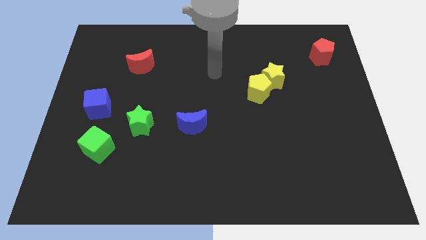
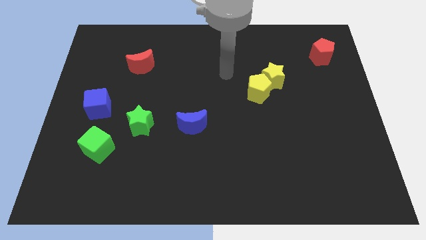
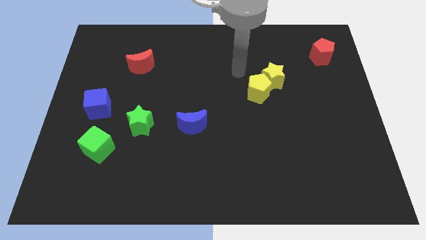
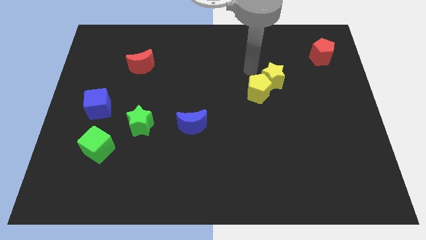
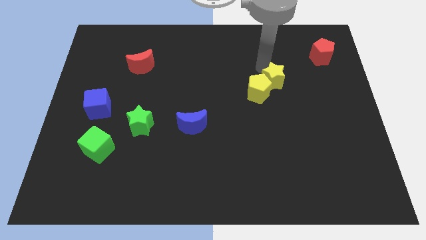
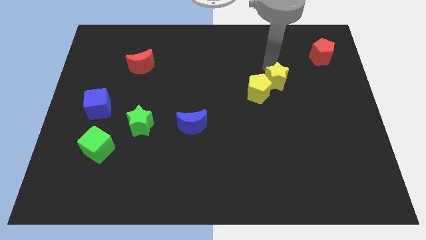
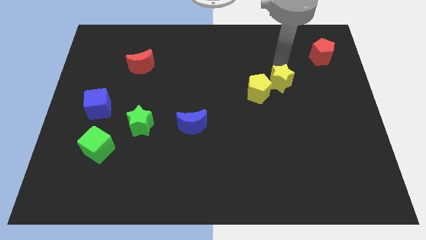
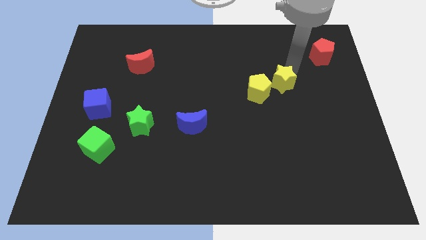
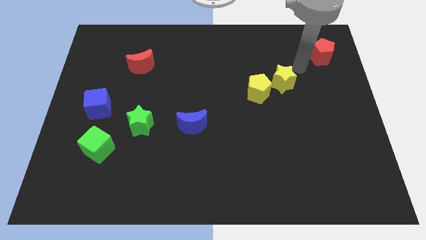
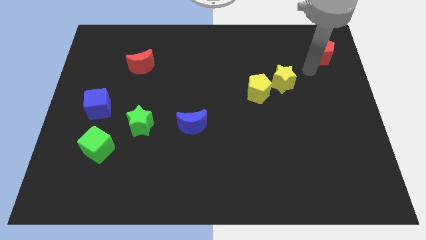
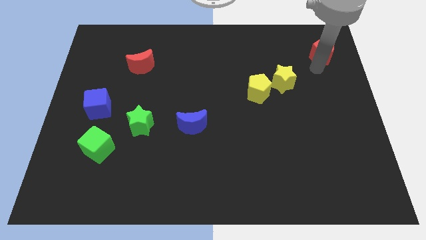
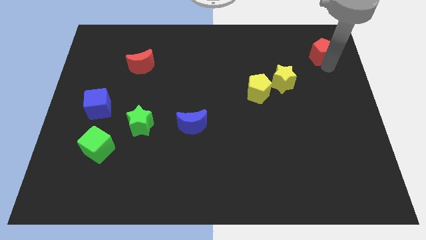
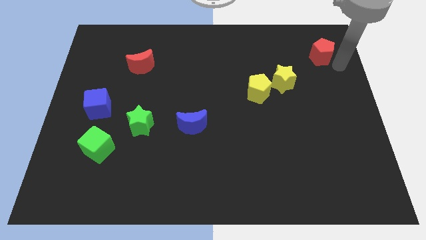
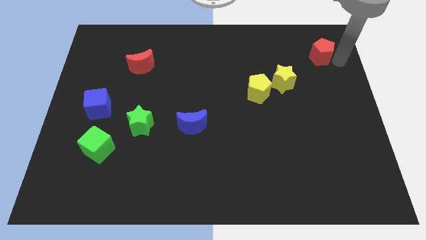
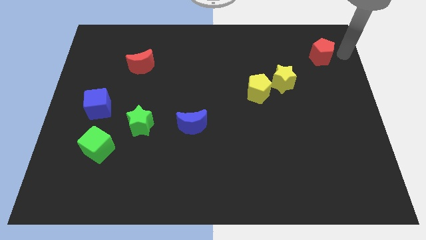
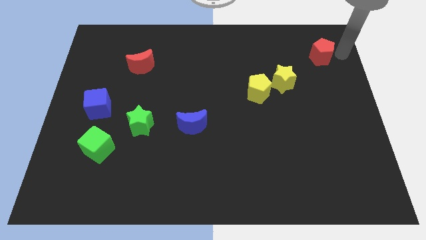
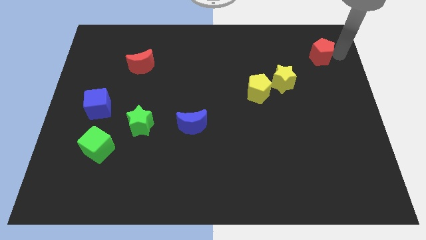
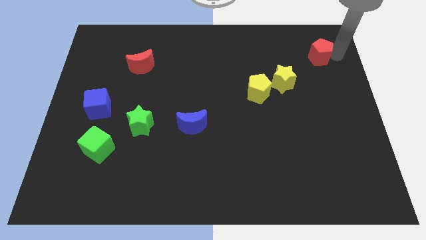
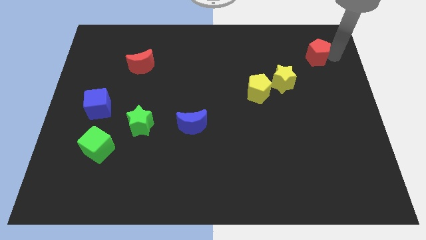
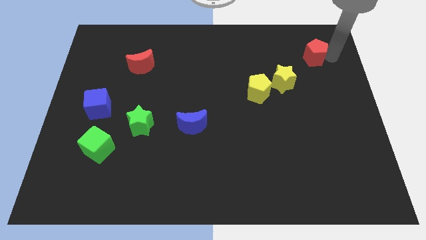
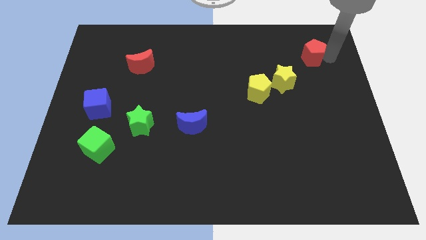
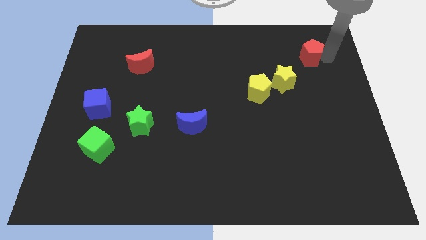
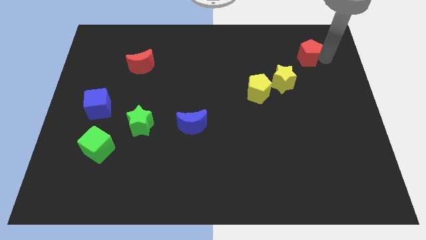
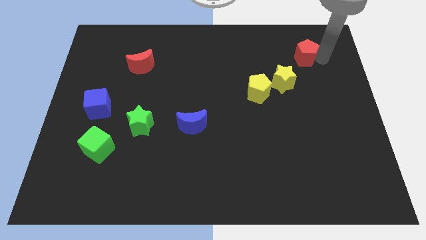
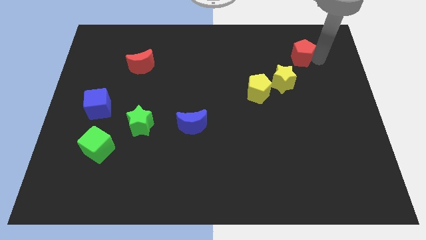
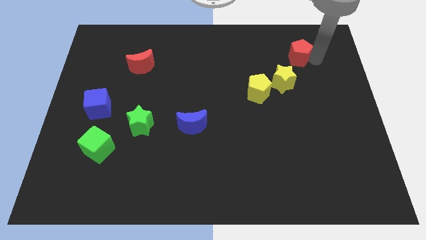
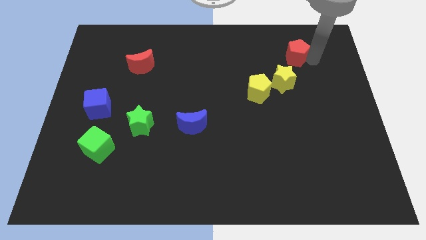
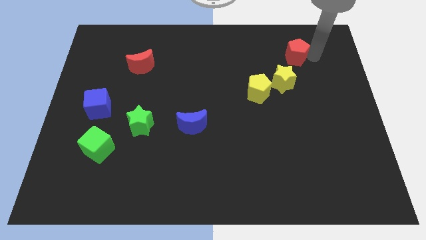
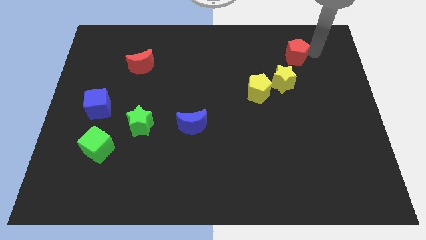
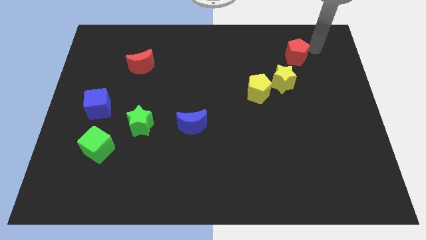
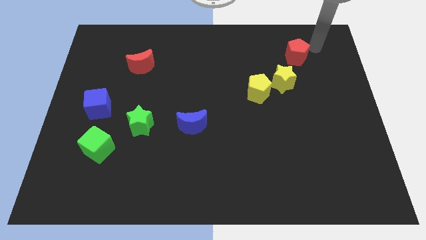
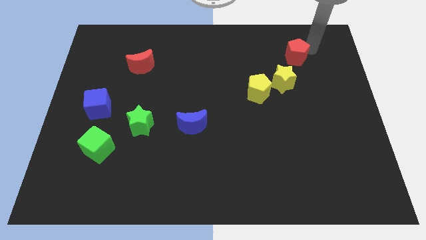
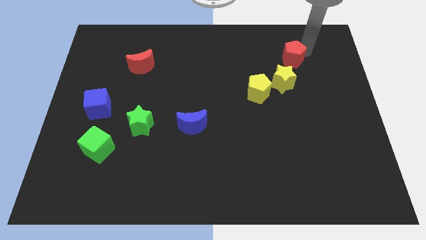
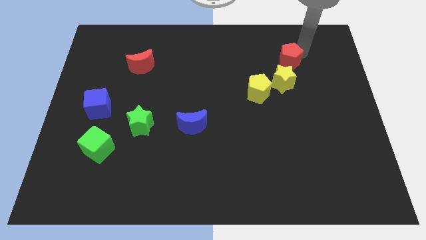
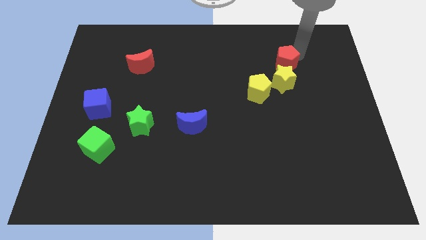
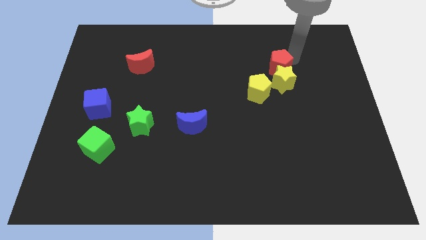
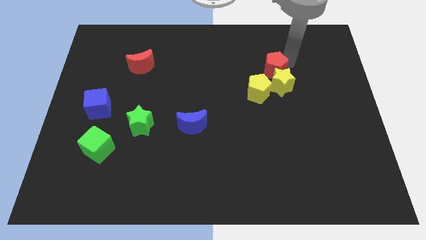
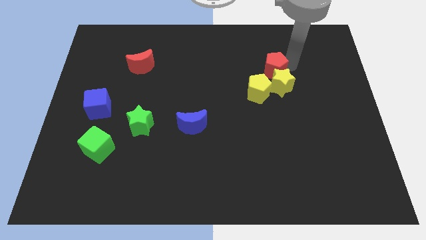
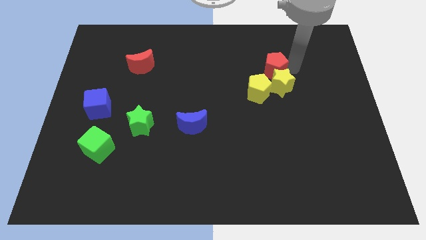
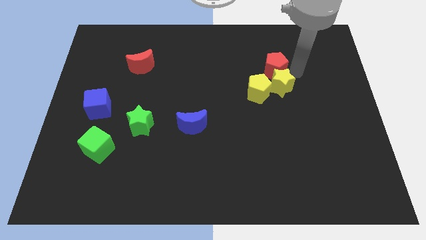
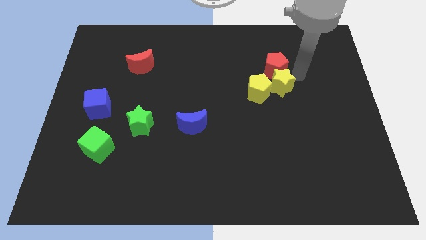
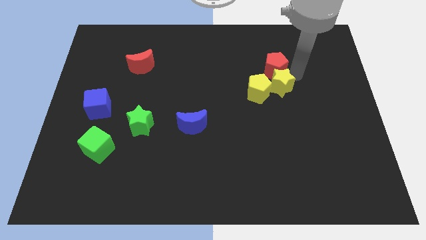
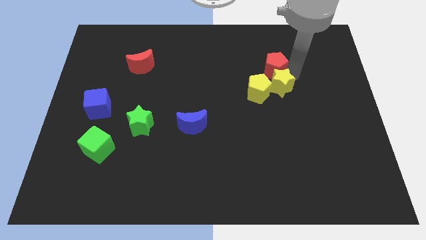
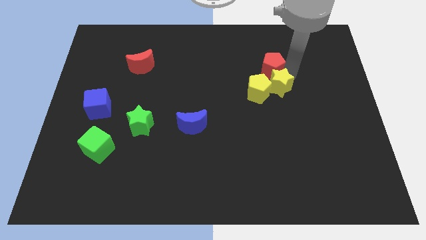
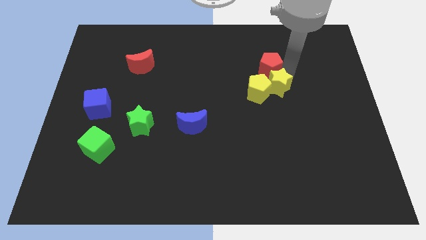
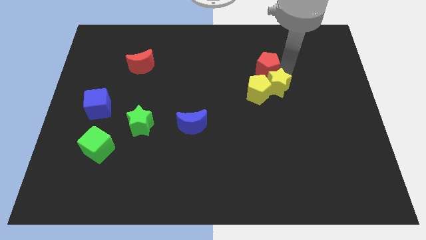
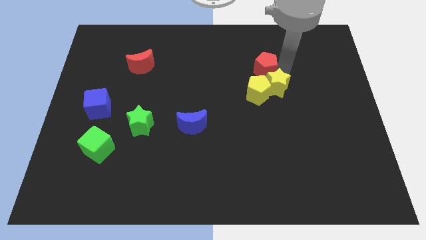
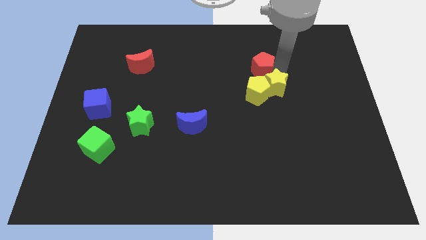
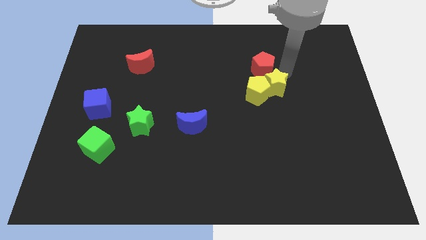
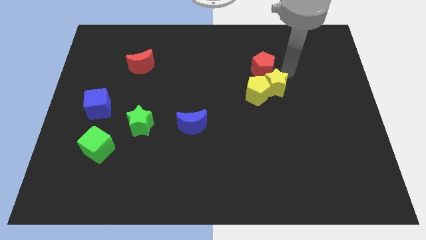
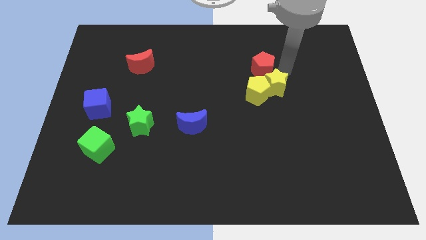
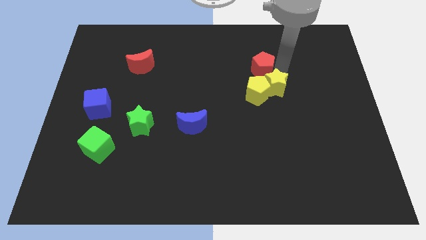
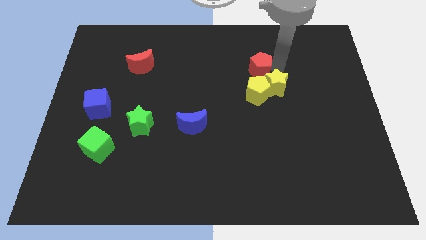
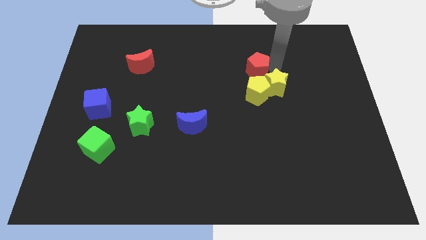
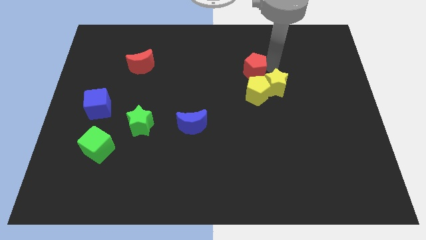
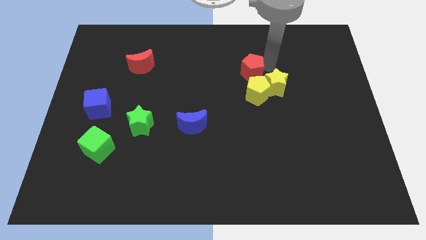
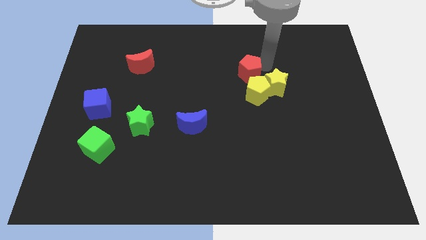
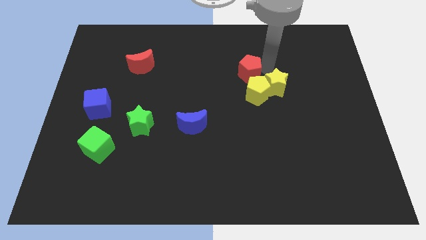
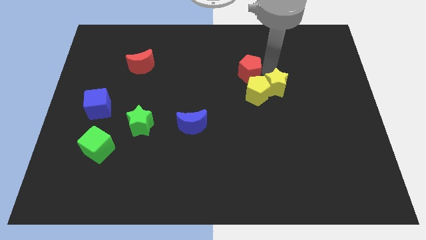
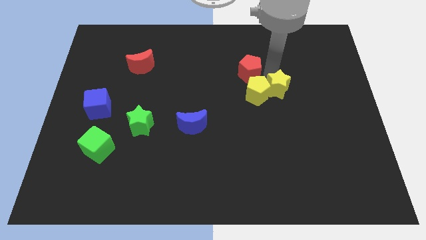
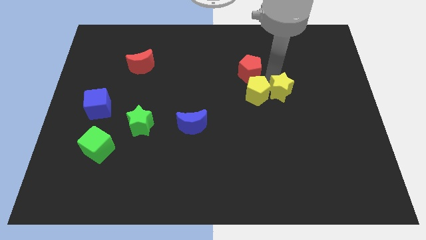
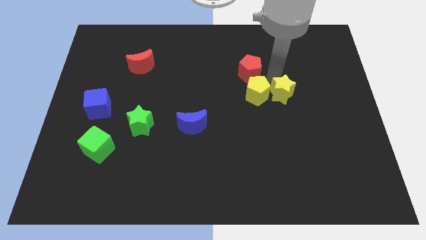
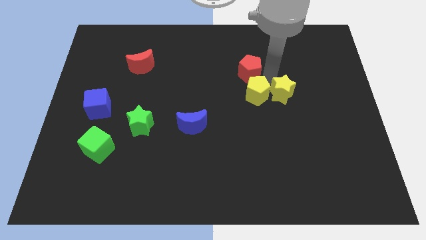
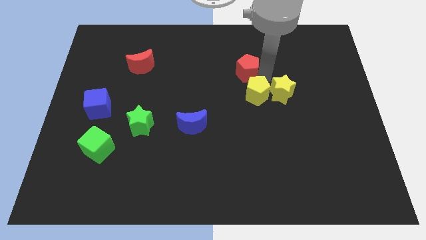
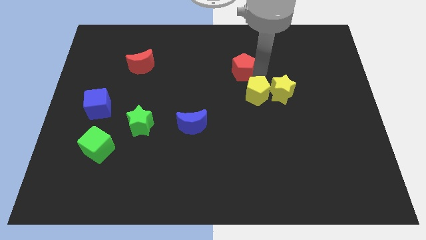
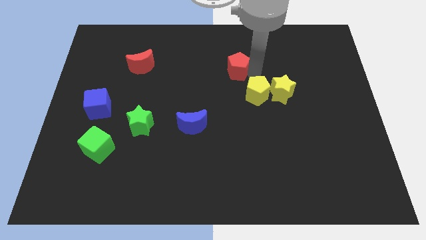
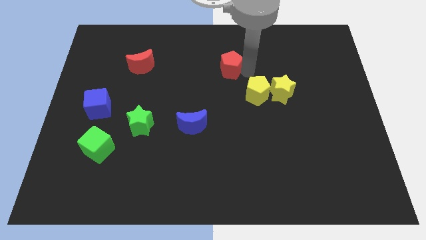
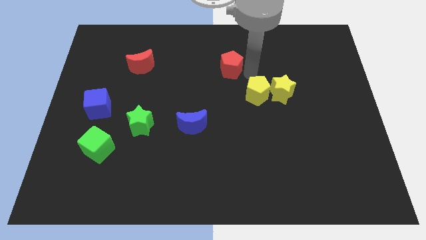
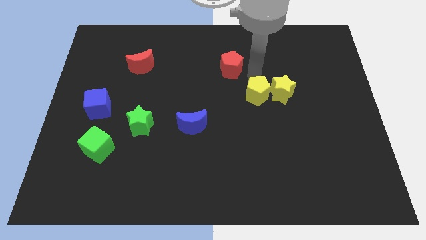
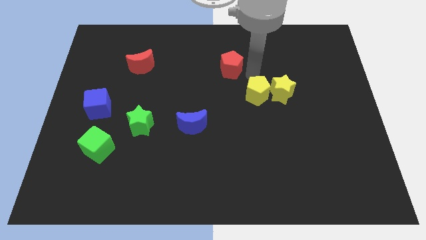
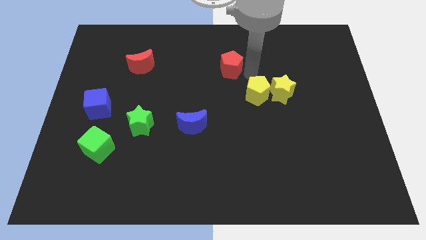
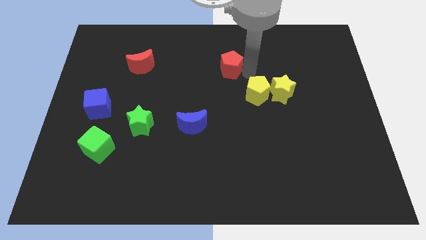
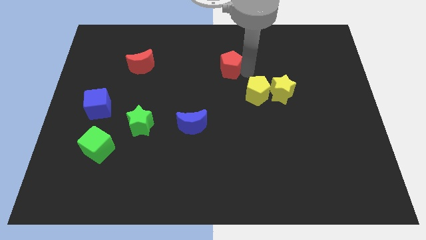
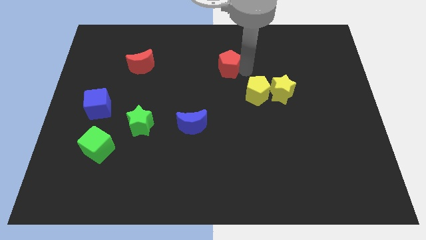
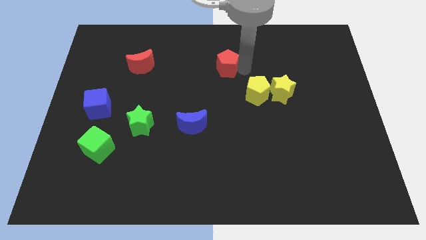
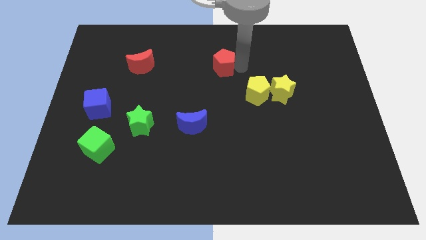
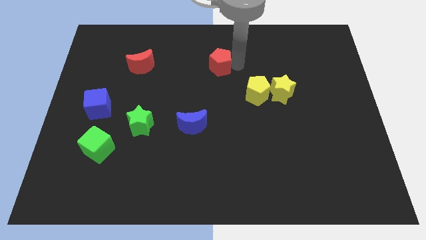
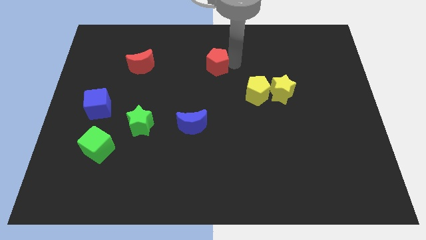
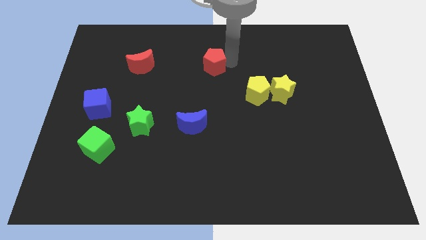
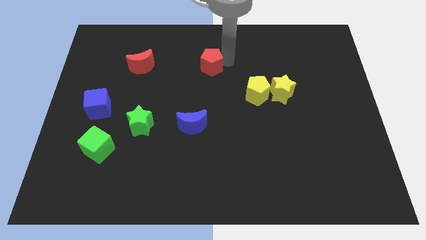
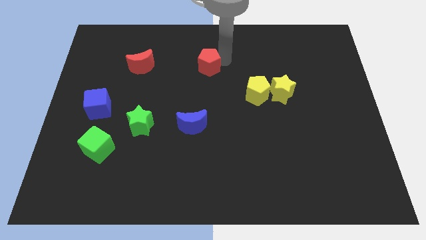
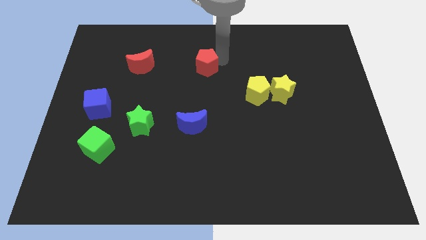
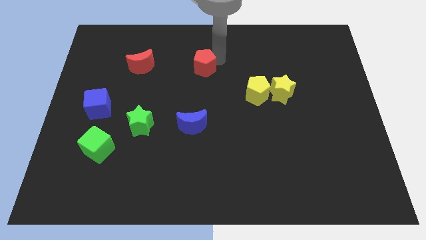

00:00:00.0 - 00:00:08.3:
put the red pentagon right of the red moon
